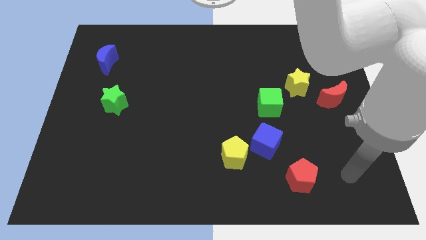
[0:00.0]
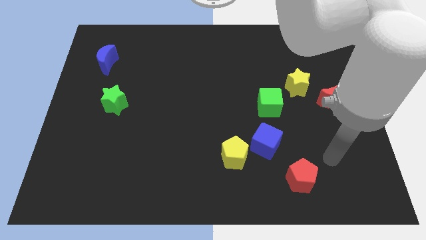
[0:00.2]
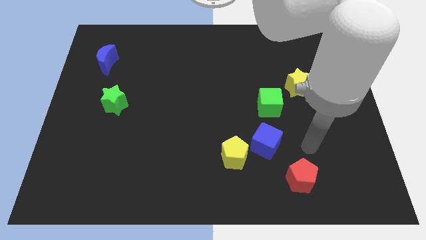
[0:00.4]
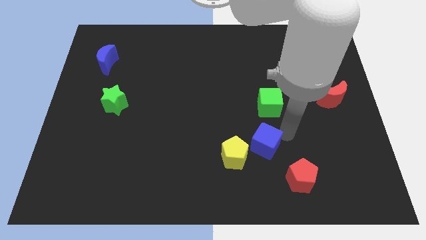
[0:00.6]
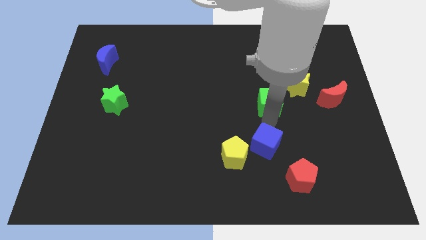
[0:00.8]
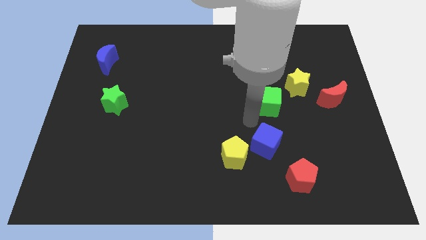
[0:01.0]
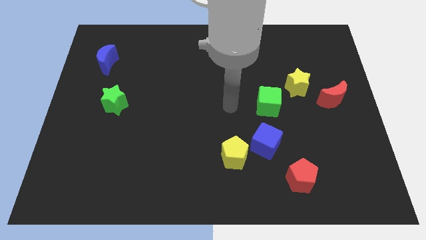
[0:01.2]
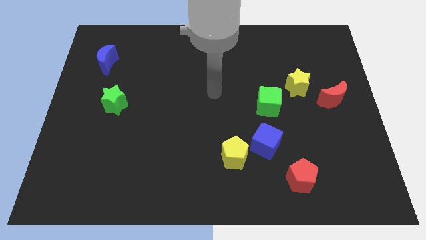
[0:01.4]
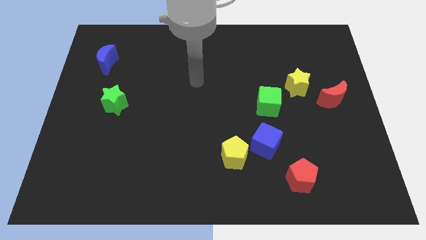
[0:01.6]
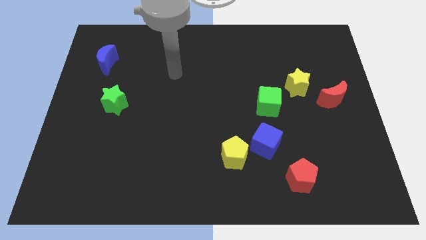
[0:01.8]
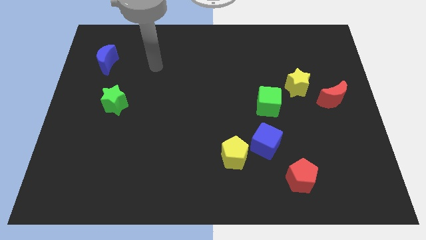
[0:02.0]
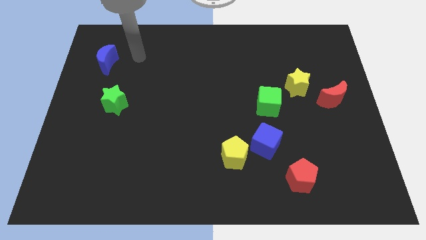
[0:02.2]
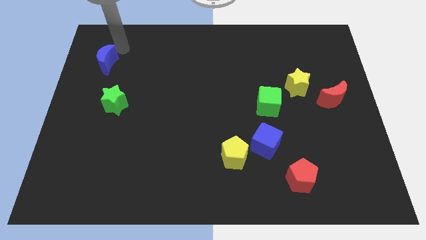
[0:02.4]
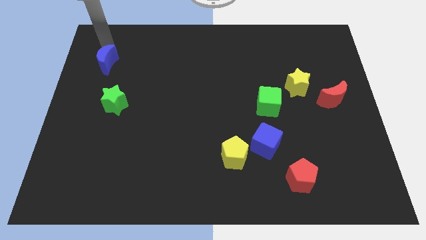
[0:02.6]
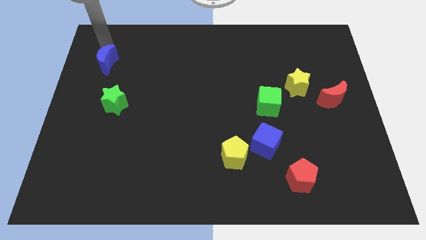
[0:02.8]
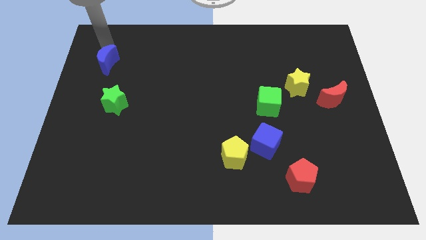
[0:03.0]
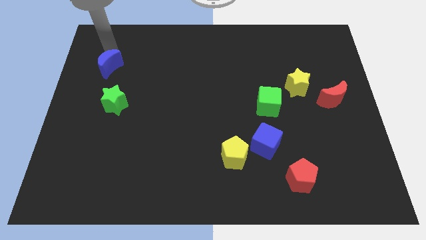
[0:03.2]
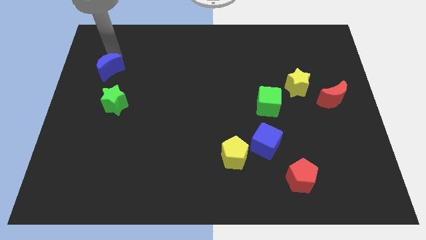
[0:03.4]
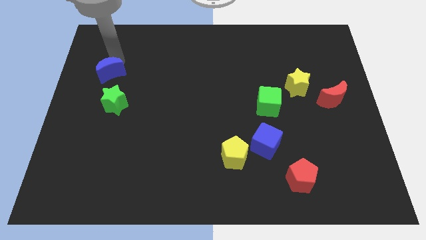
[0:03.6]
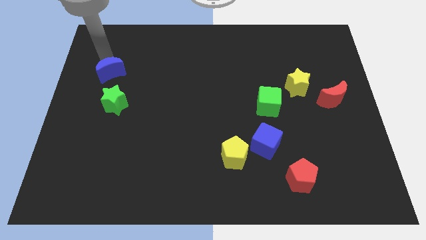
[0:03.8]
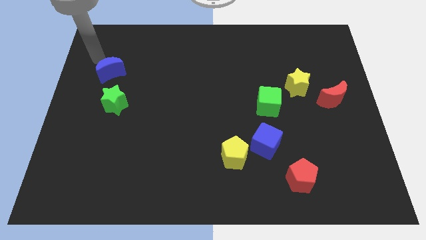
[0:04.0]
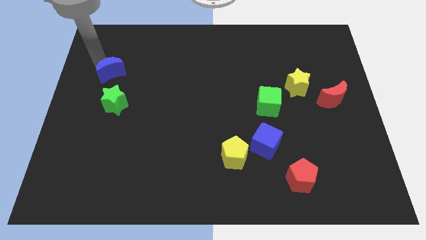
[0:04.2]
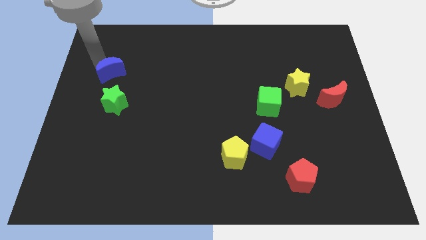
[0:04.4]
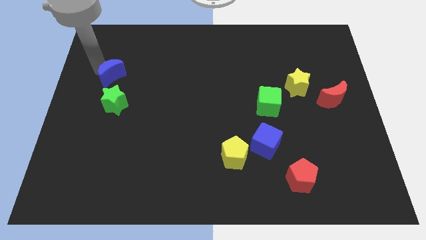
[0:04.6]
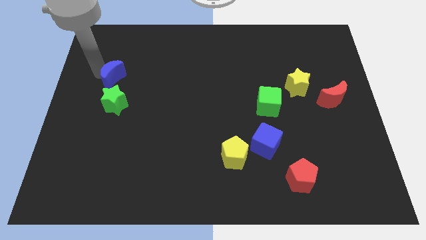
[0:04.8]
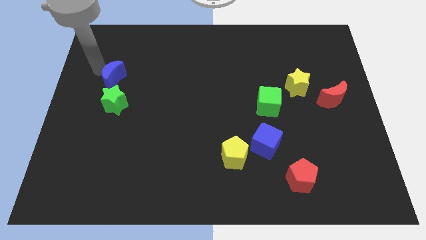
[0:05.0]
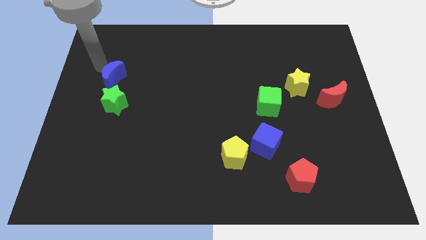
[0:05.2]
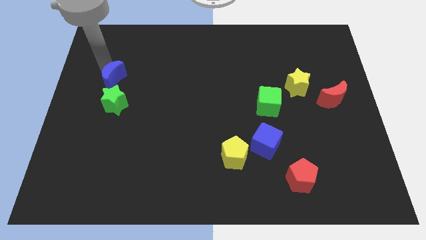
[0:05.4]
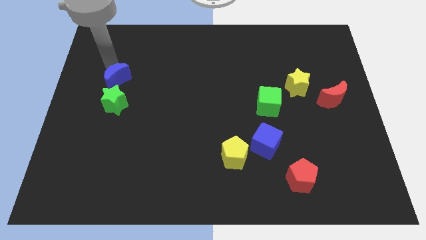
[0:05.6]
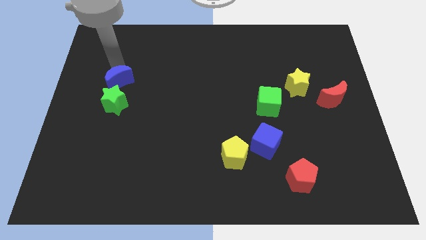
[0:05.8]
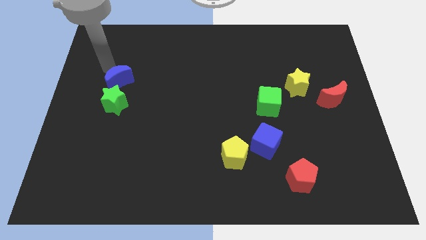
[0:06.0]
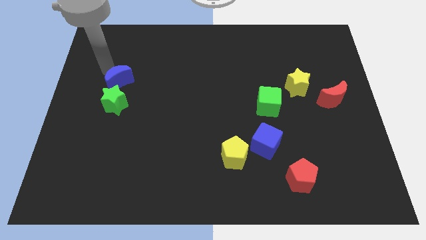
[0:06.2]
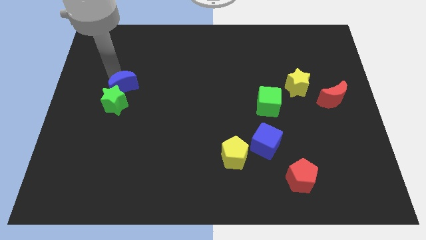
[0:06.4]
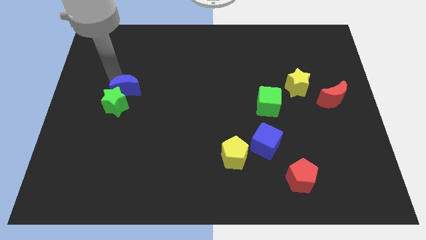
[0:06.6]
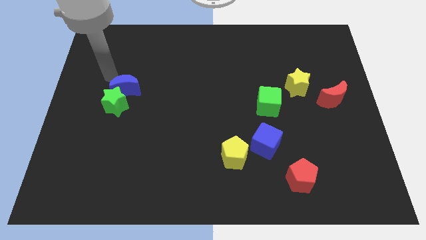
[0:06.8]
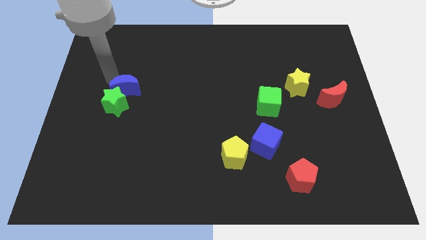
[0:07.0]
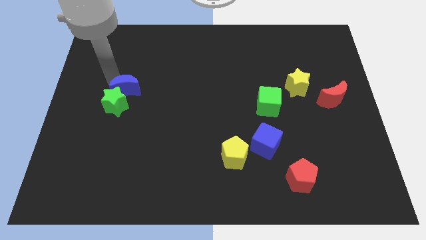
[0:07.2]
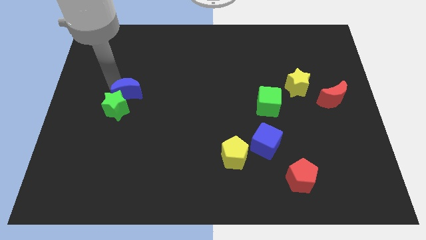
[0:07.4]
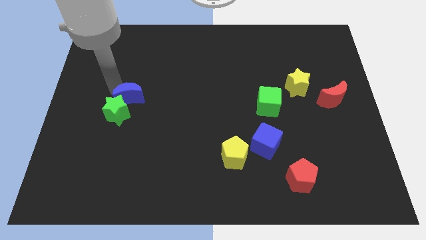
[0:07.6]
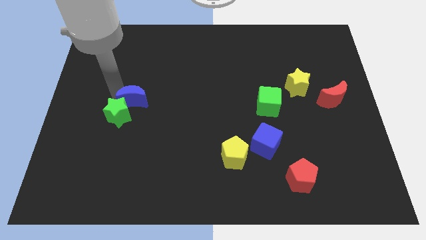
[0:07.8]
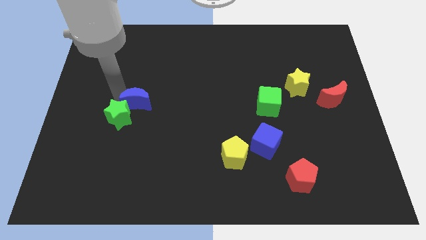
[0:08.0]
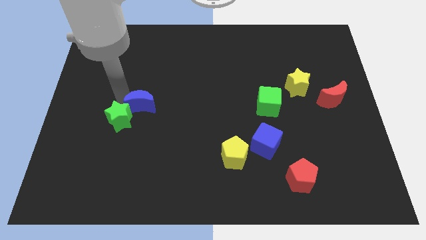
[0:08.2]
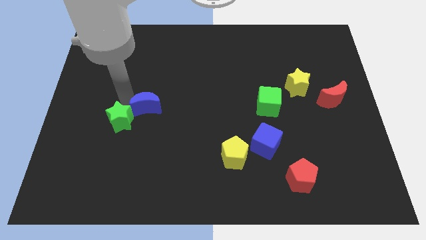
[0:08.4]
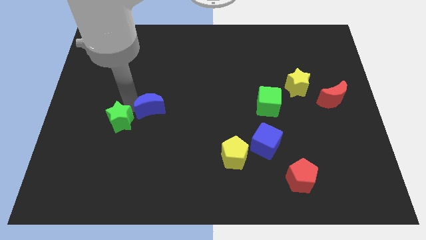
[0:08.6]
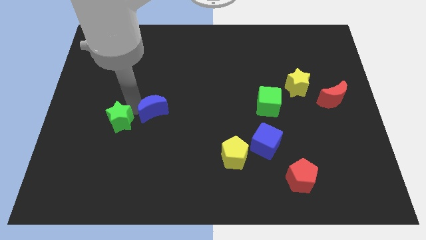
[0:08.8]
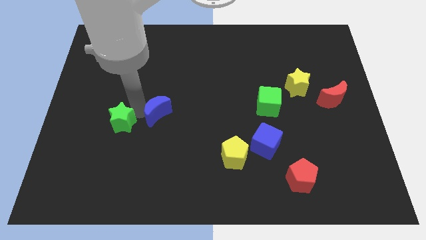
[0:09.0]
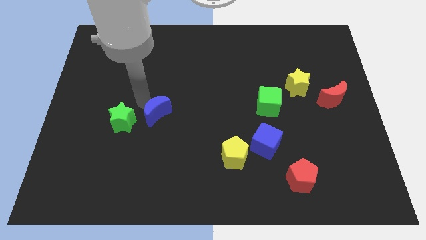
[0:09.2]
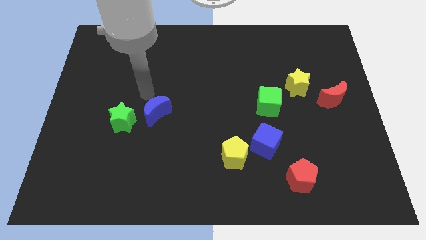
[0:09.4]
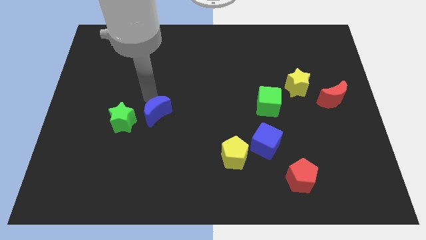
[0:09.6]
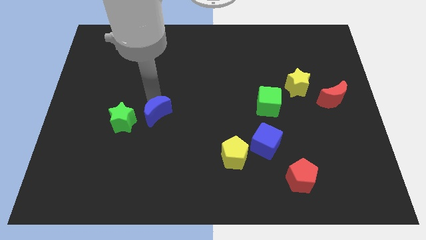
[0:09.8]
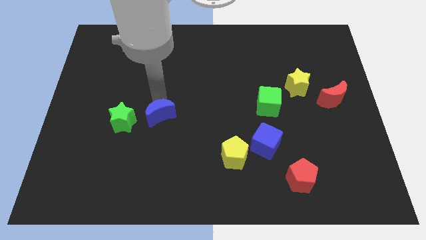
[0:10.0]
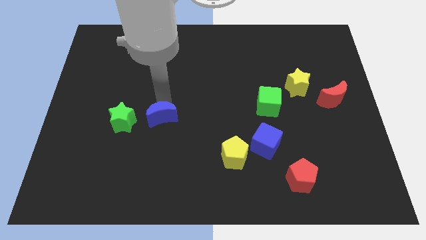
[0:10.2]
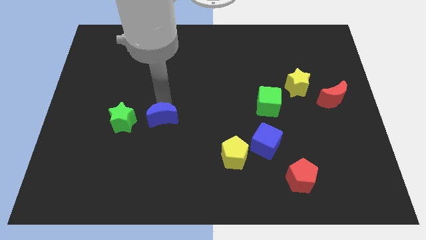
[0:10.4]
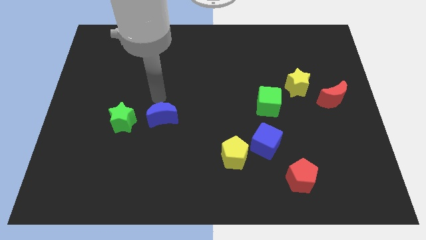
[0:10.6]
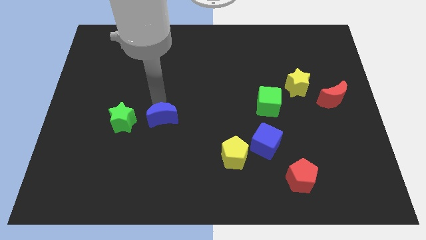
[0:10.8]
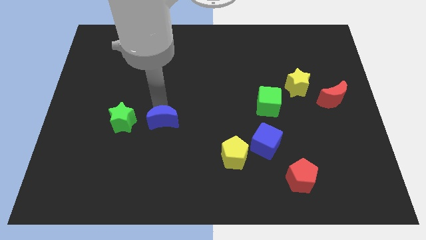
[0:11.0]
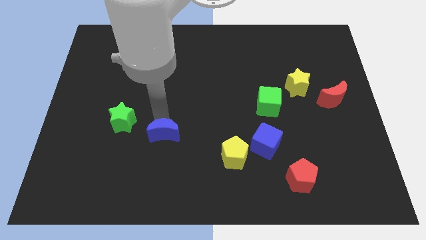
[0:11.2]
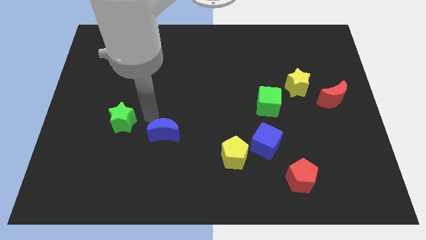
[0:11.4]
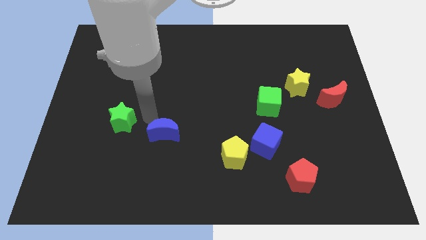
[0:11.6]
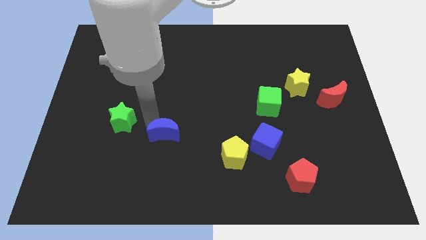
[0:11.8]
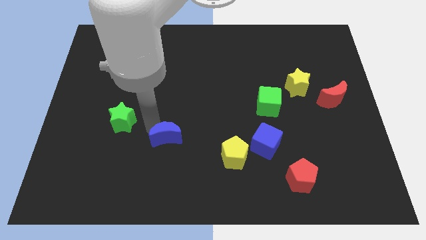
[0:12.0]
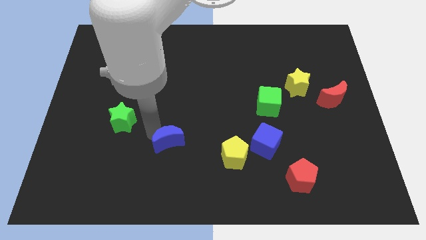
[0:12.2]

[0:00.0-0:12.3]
push the blue moon to the left side of the yellow pentagon

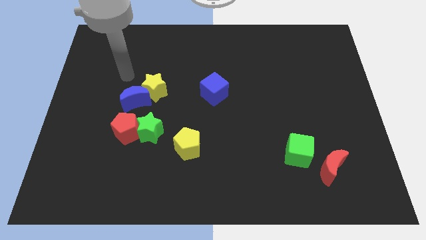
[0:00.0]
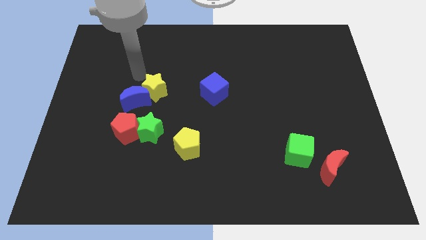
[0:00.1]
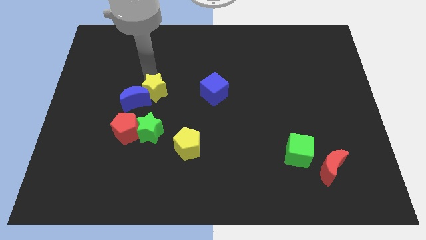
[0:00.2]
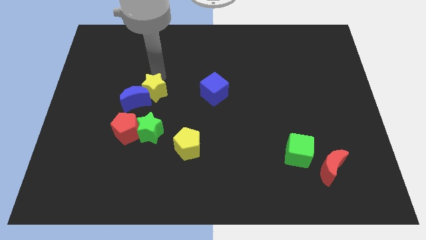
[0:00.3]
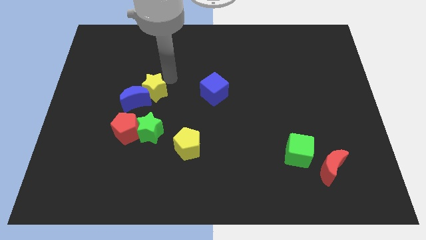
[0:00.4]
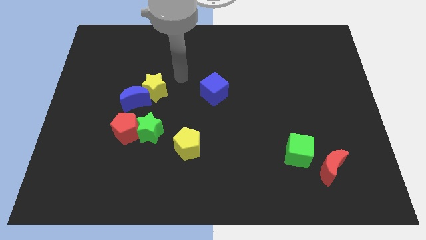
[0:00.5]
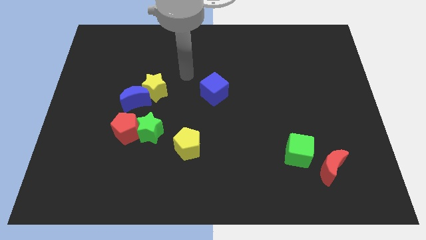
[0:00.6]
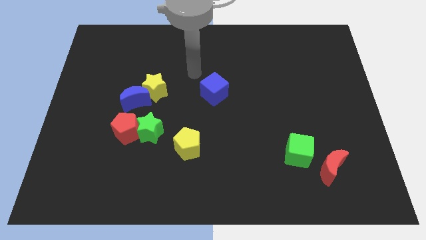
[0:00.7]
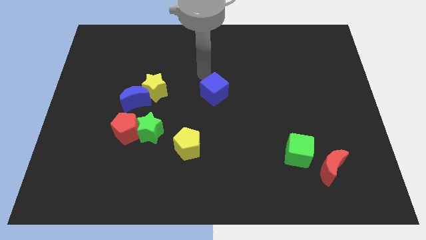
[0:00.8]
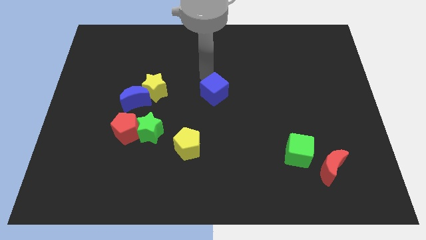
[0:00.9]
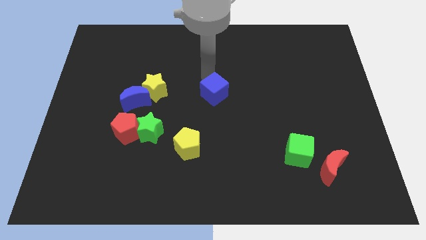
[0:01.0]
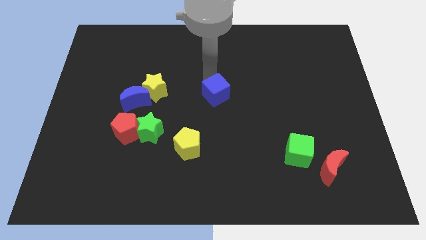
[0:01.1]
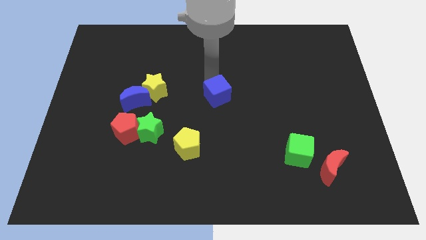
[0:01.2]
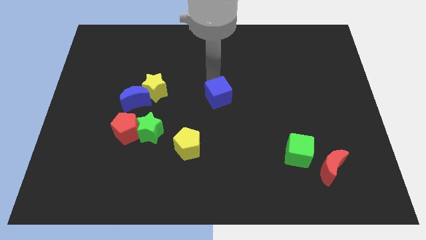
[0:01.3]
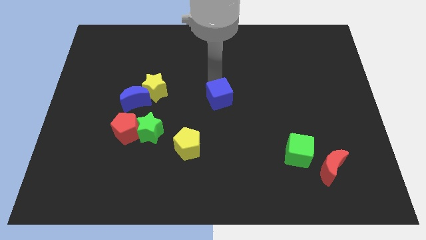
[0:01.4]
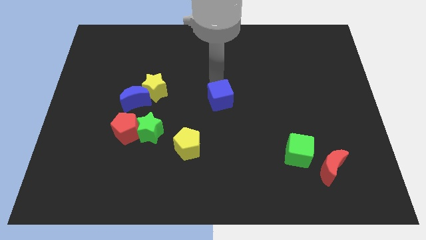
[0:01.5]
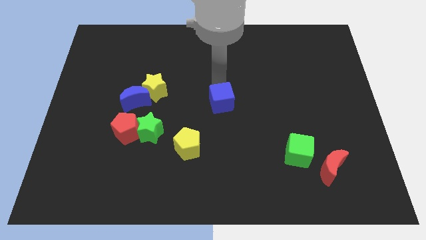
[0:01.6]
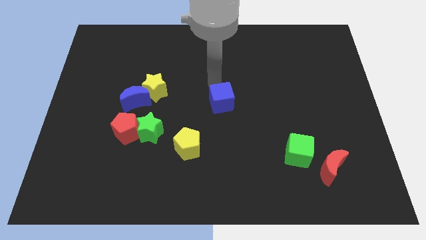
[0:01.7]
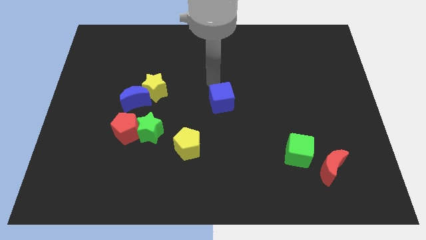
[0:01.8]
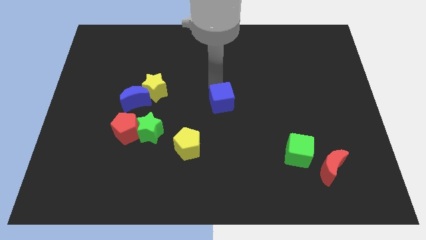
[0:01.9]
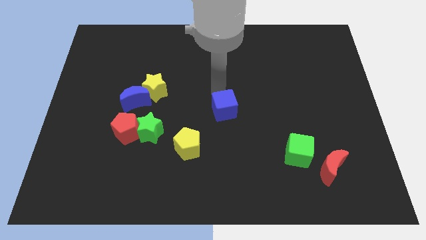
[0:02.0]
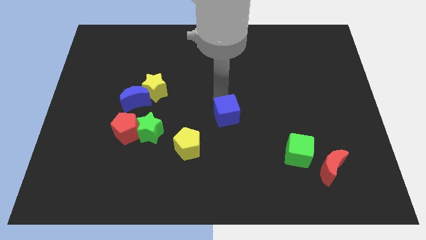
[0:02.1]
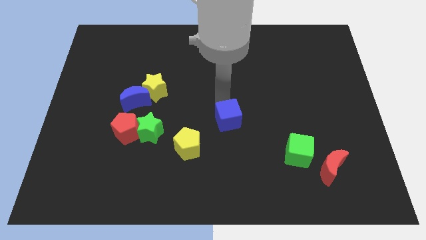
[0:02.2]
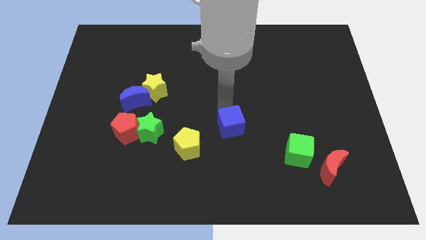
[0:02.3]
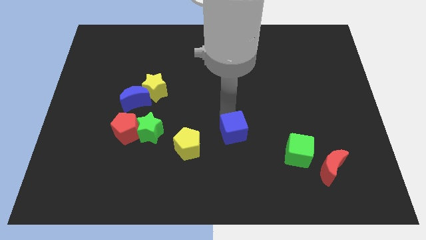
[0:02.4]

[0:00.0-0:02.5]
move the blue cube to the right side of the yellow pentagon
